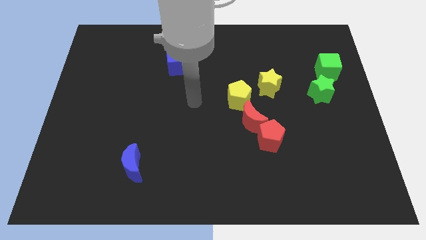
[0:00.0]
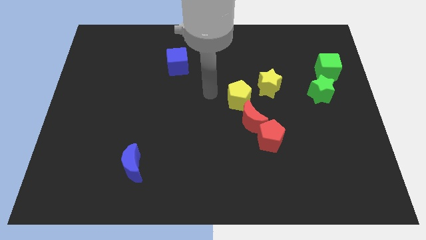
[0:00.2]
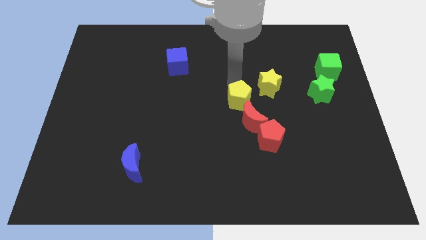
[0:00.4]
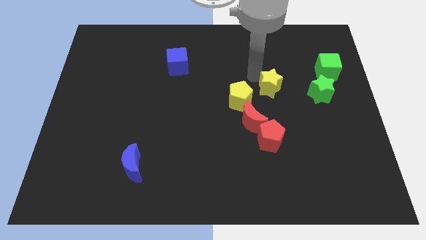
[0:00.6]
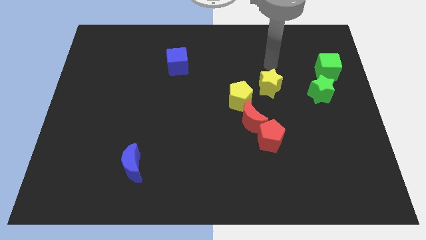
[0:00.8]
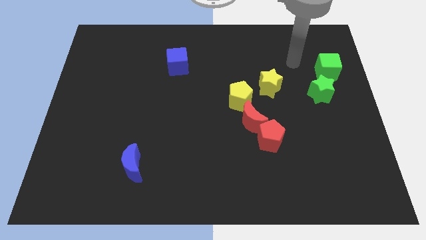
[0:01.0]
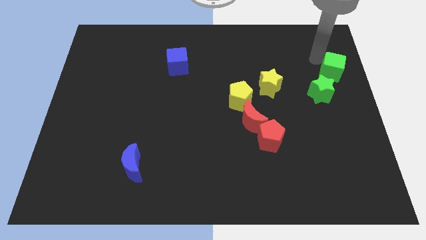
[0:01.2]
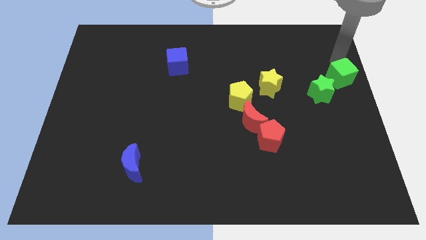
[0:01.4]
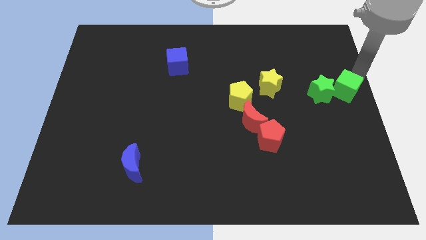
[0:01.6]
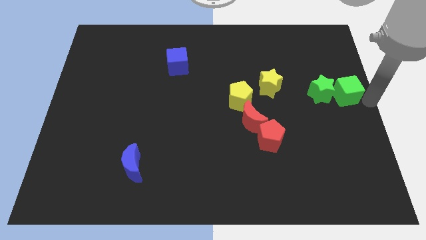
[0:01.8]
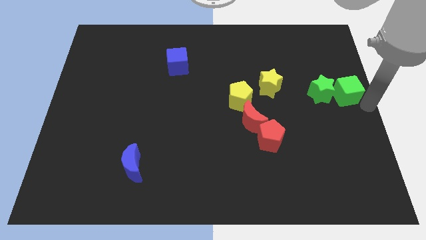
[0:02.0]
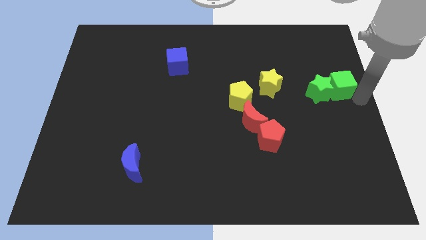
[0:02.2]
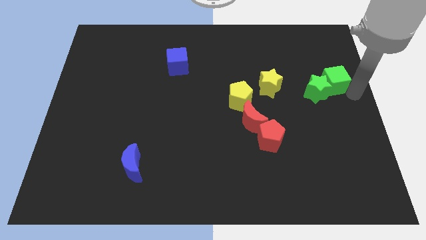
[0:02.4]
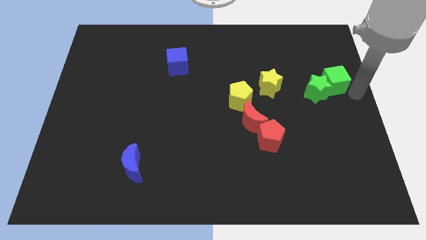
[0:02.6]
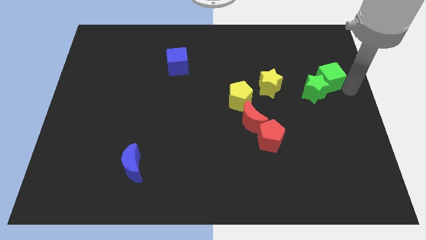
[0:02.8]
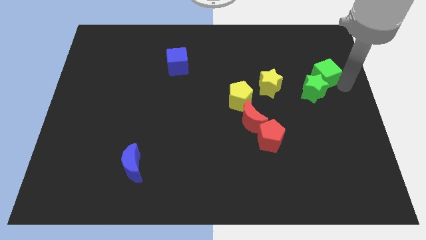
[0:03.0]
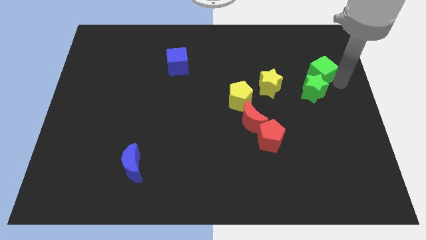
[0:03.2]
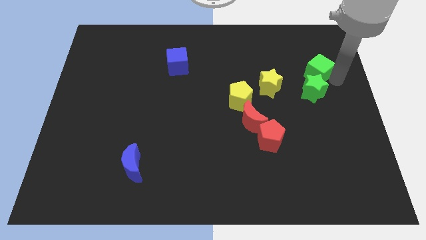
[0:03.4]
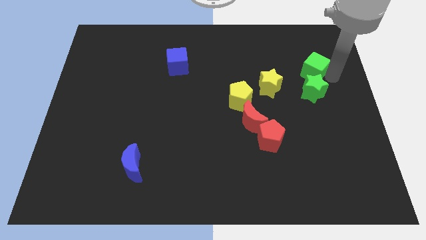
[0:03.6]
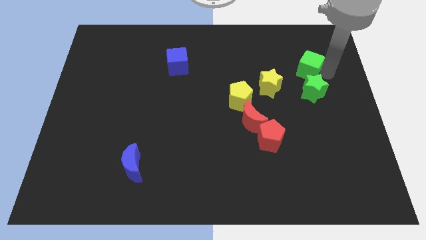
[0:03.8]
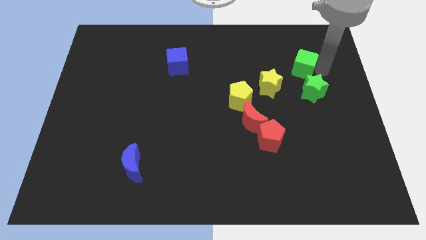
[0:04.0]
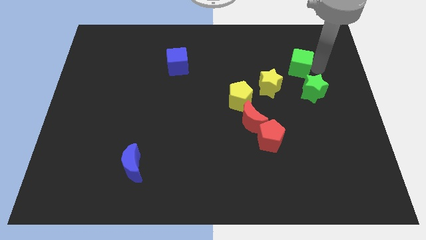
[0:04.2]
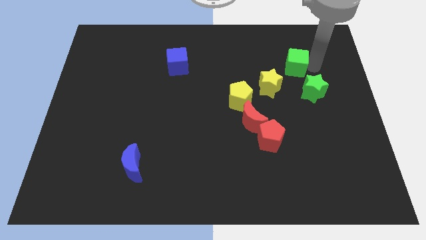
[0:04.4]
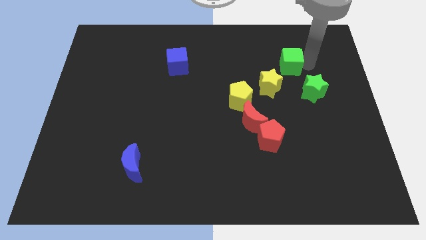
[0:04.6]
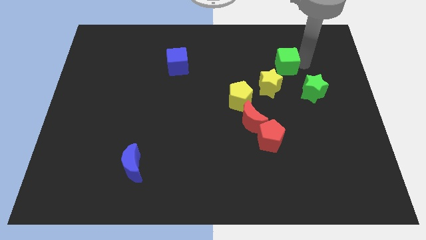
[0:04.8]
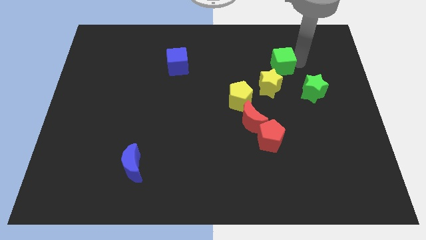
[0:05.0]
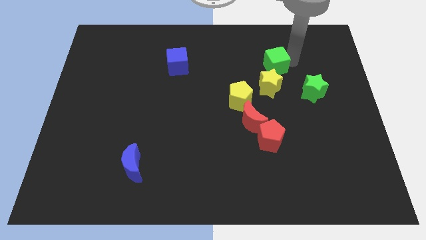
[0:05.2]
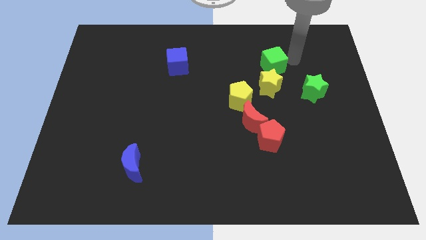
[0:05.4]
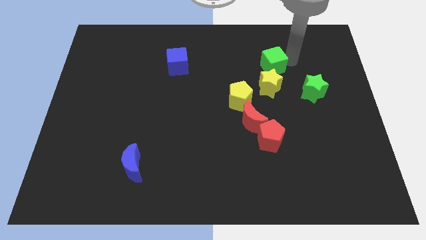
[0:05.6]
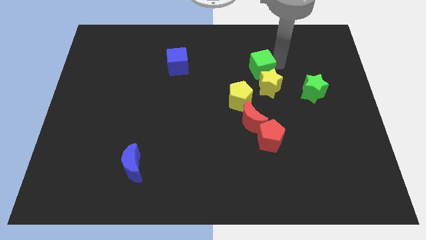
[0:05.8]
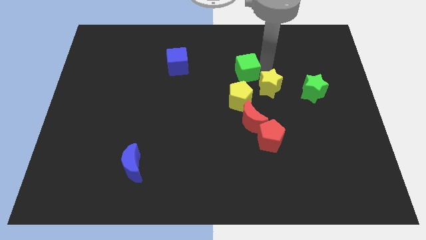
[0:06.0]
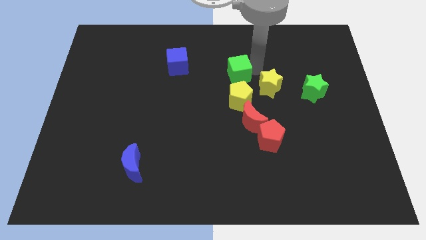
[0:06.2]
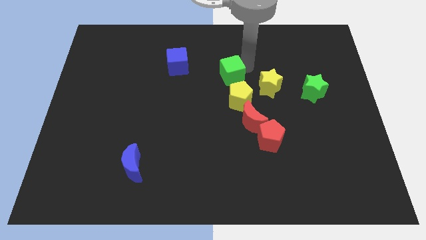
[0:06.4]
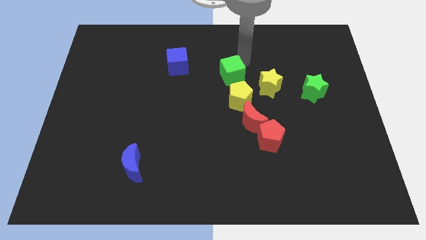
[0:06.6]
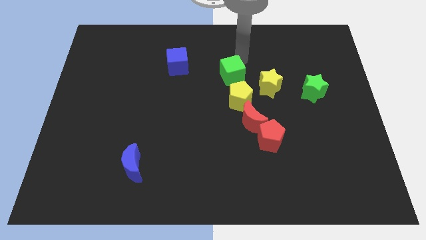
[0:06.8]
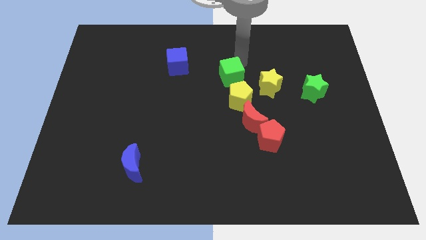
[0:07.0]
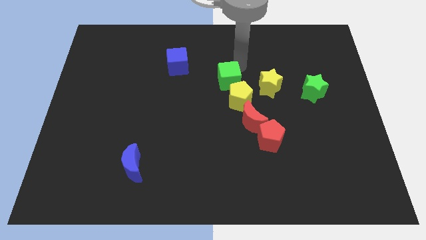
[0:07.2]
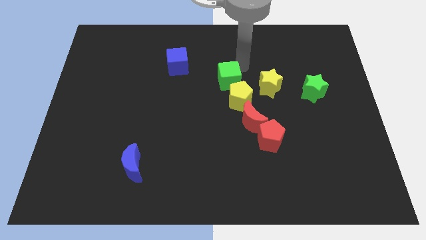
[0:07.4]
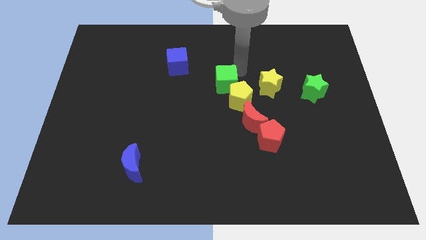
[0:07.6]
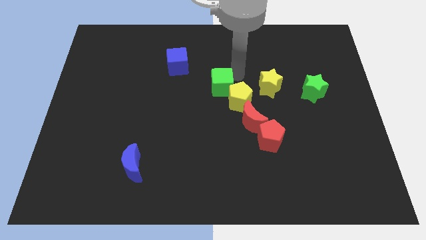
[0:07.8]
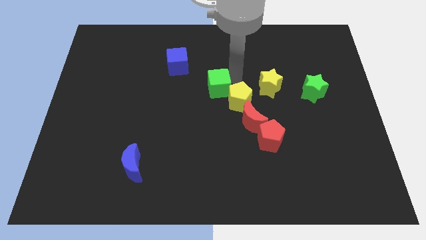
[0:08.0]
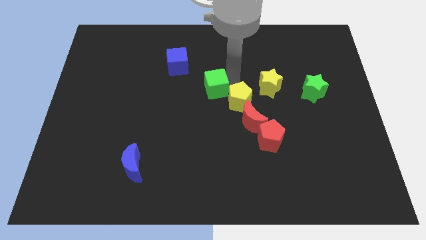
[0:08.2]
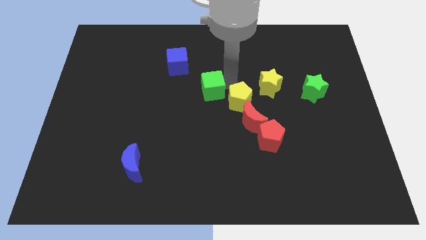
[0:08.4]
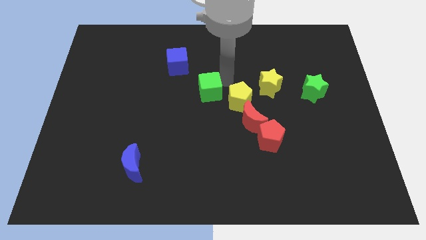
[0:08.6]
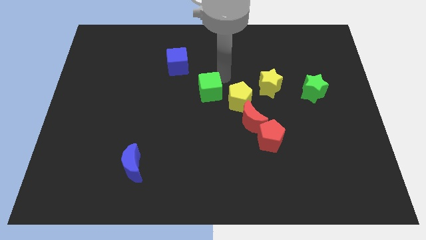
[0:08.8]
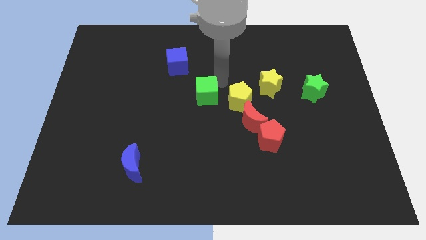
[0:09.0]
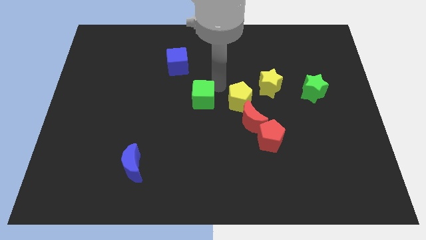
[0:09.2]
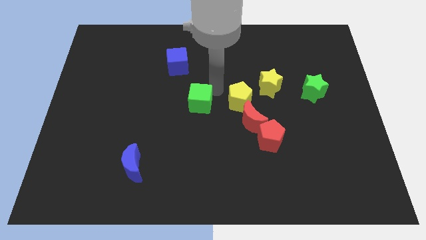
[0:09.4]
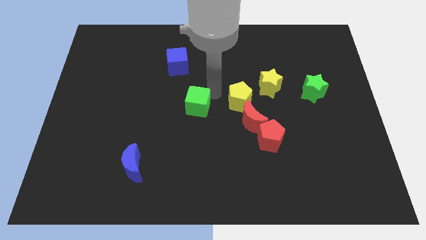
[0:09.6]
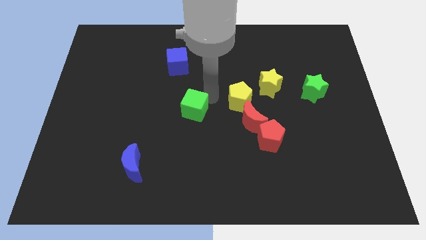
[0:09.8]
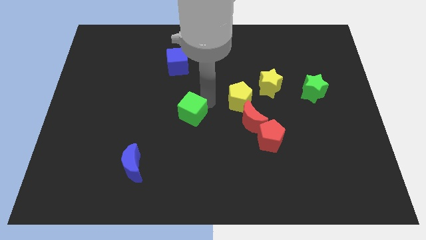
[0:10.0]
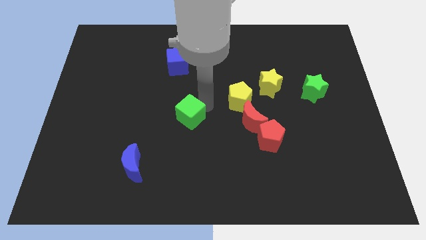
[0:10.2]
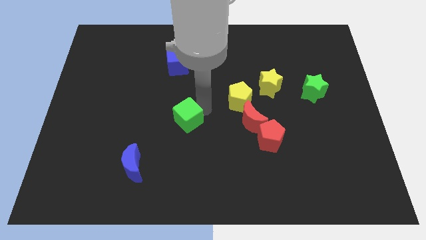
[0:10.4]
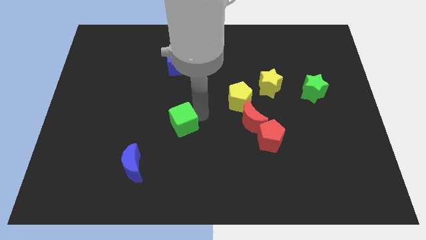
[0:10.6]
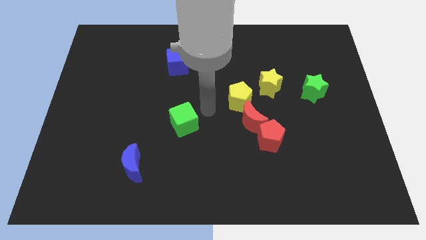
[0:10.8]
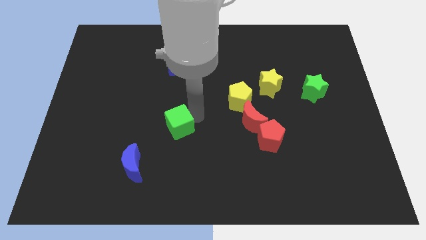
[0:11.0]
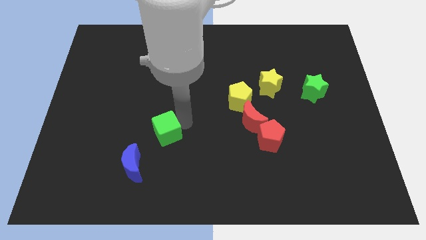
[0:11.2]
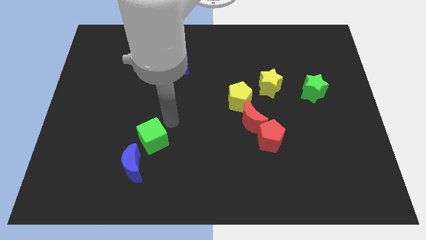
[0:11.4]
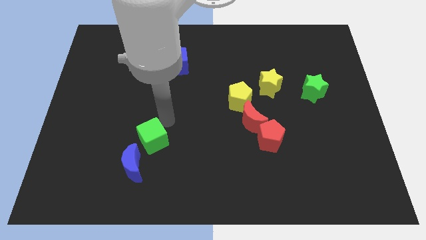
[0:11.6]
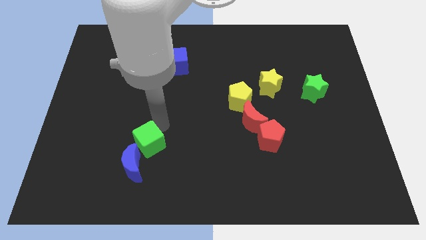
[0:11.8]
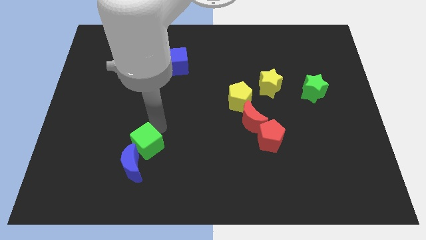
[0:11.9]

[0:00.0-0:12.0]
put the green cube close to the blue moon

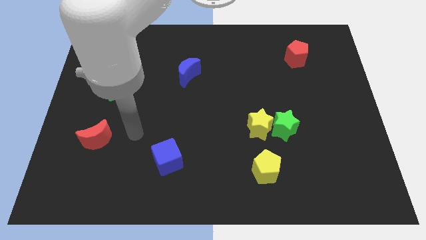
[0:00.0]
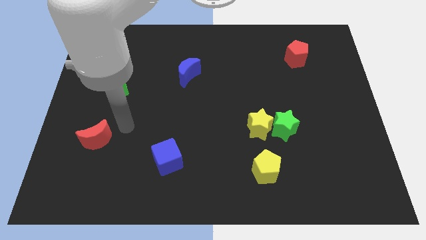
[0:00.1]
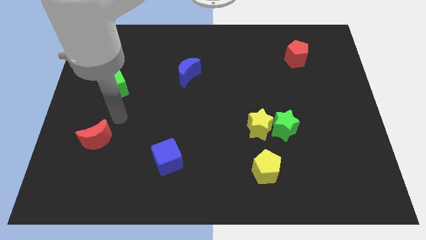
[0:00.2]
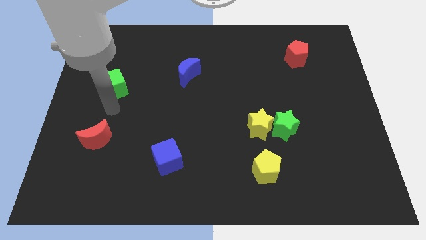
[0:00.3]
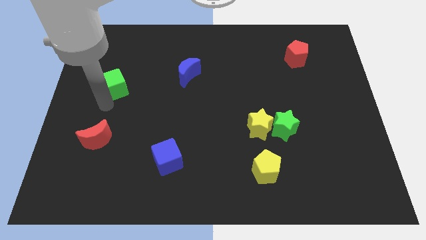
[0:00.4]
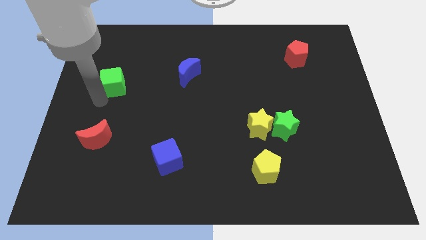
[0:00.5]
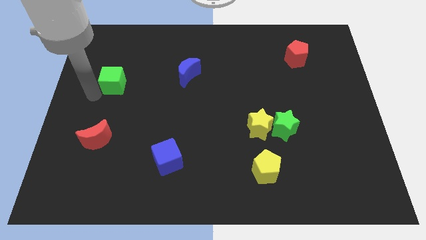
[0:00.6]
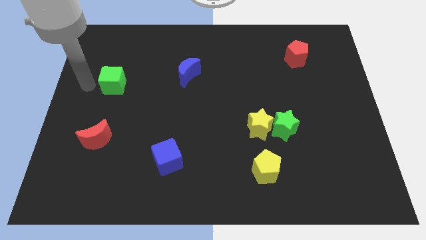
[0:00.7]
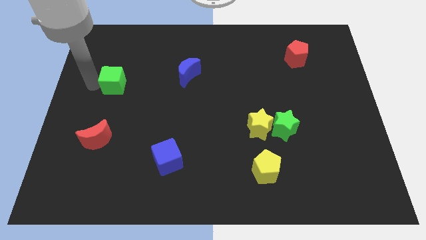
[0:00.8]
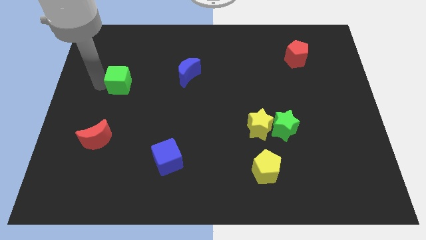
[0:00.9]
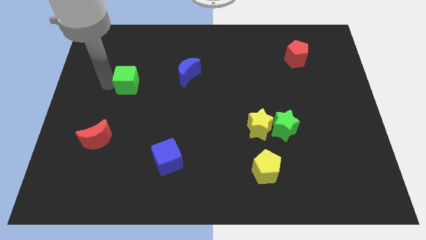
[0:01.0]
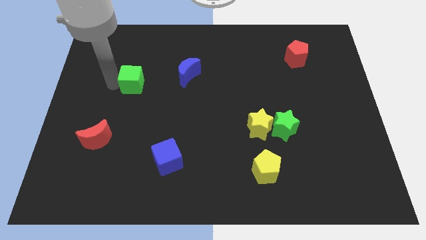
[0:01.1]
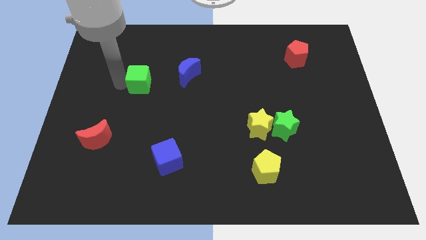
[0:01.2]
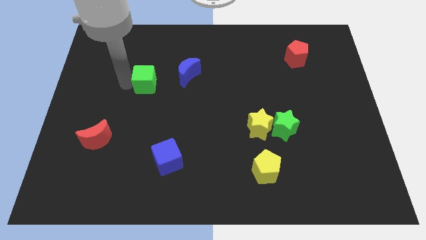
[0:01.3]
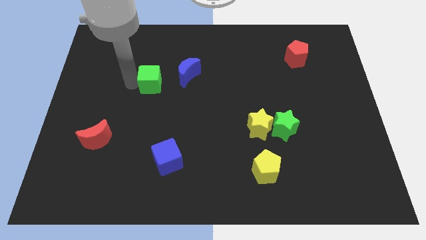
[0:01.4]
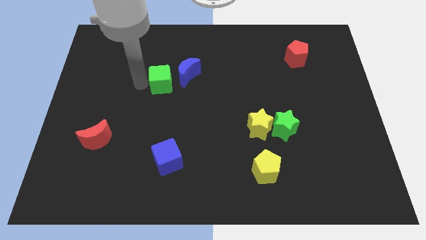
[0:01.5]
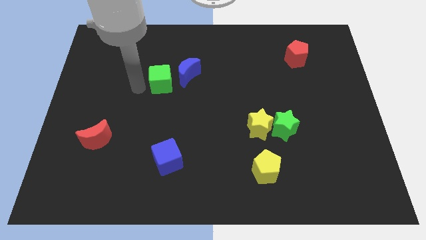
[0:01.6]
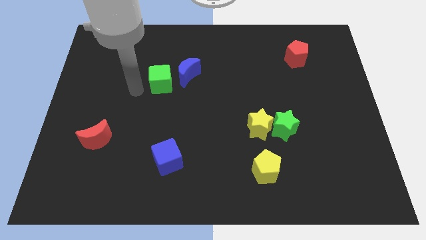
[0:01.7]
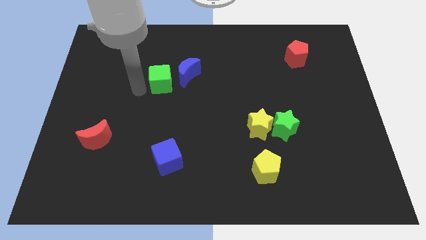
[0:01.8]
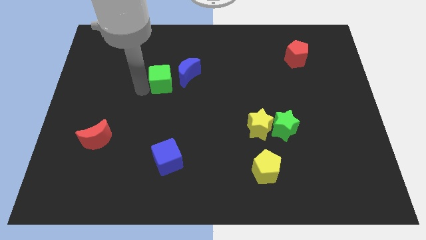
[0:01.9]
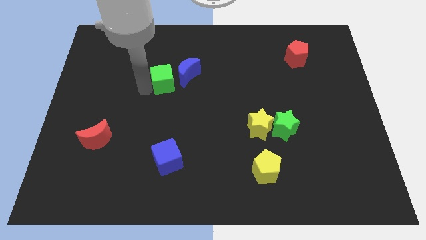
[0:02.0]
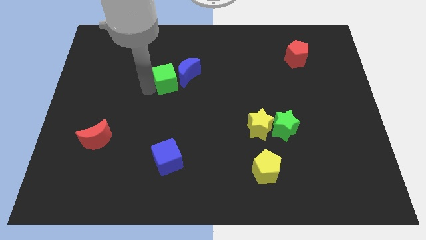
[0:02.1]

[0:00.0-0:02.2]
push the green cube next to the blue moon
